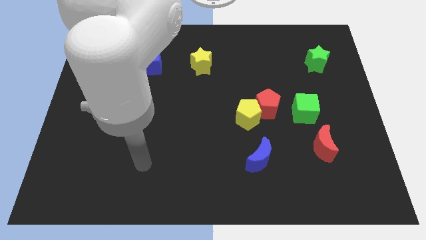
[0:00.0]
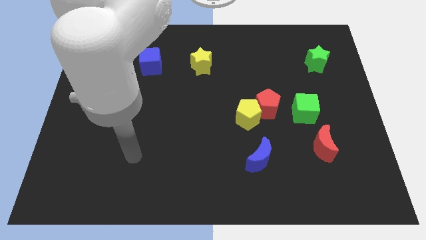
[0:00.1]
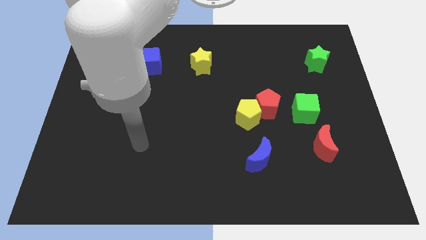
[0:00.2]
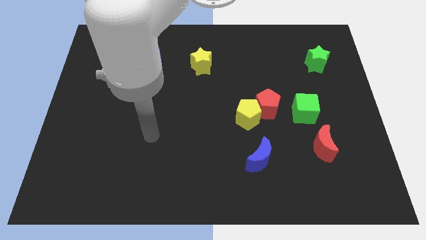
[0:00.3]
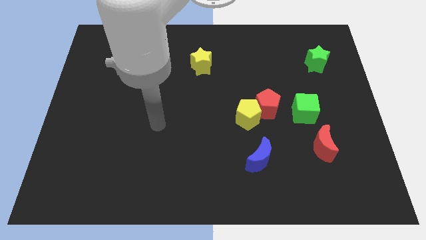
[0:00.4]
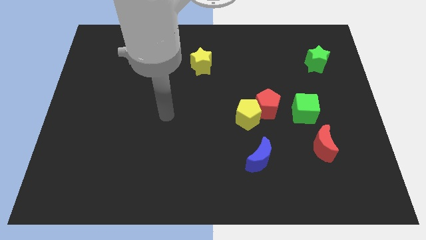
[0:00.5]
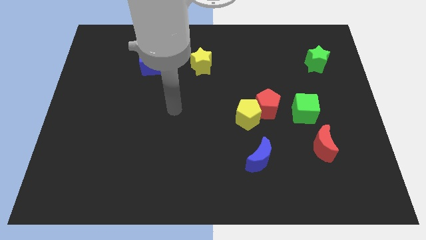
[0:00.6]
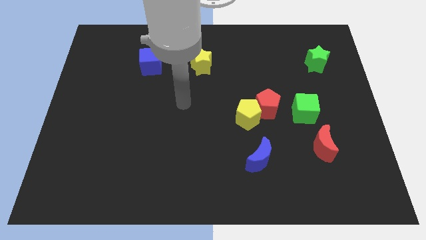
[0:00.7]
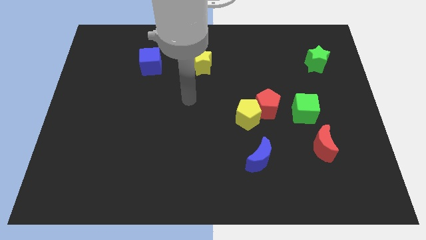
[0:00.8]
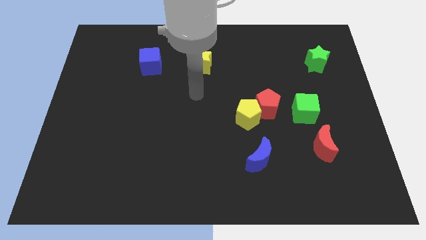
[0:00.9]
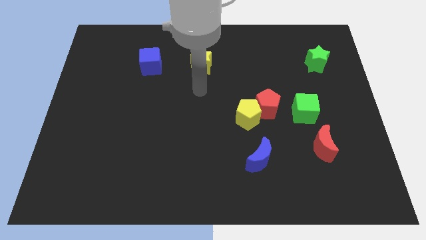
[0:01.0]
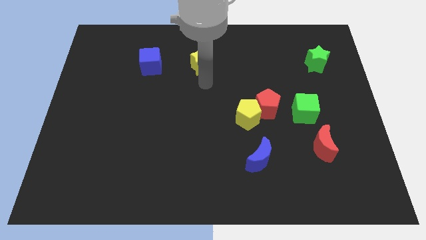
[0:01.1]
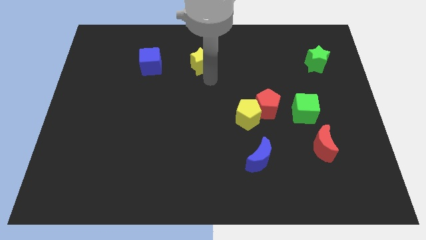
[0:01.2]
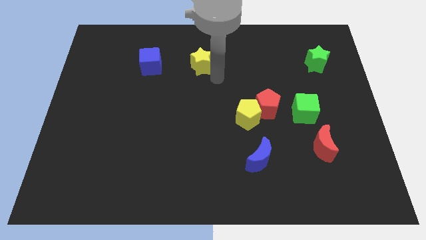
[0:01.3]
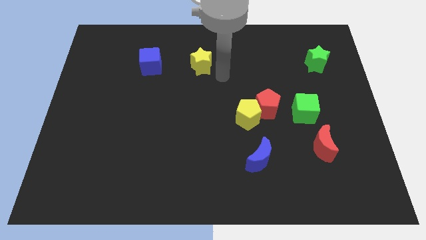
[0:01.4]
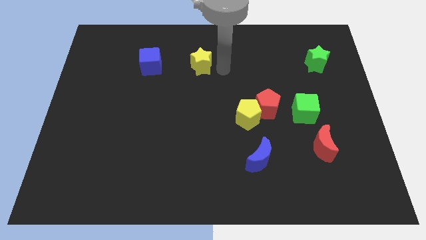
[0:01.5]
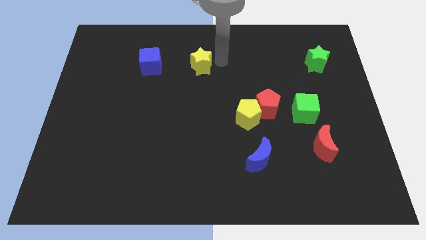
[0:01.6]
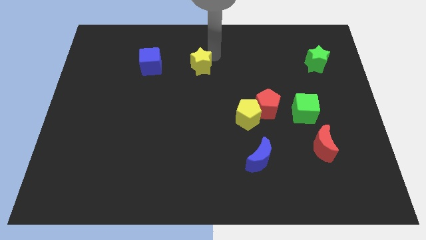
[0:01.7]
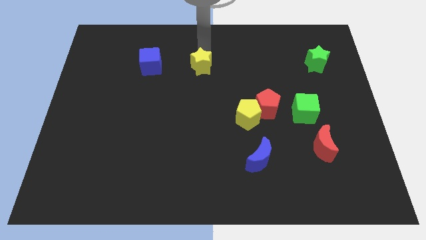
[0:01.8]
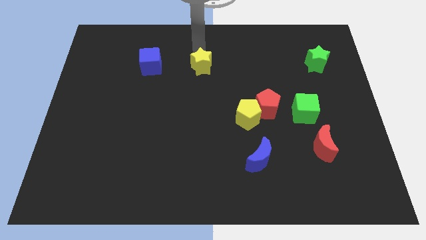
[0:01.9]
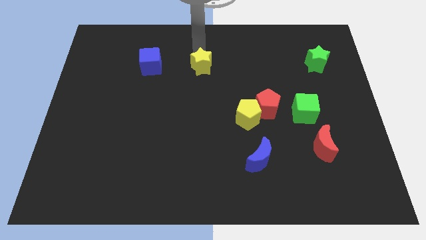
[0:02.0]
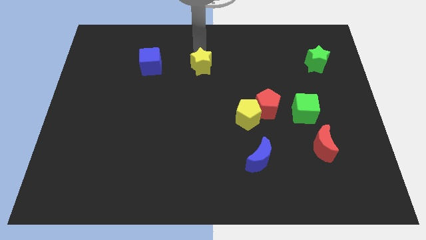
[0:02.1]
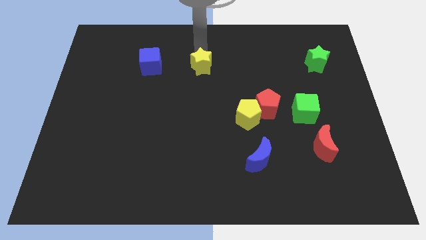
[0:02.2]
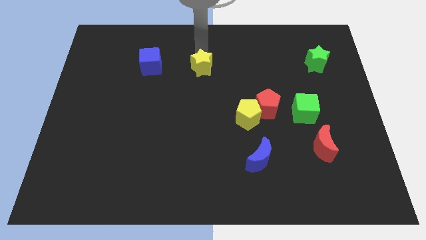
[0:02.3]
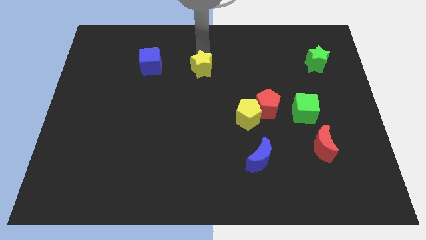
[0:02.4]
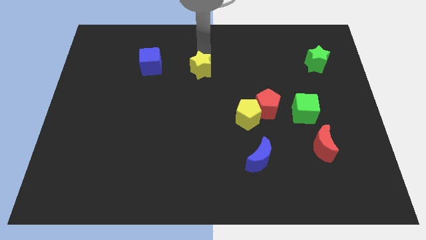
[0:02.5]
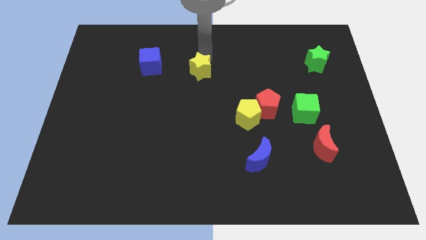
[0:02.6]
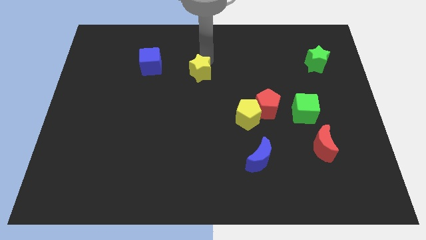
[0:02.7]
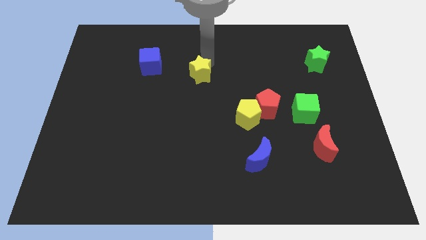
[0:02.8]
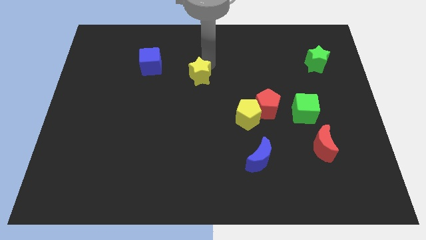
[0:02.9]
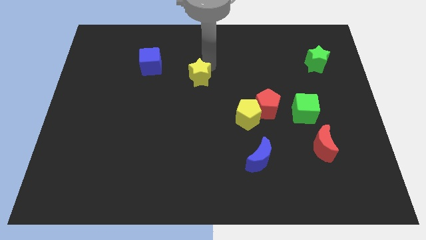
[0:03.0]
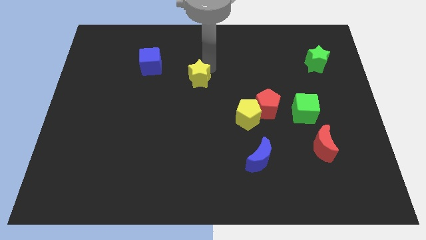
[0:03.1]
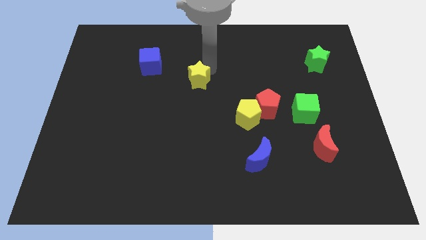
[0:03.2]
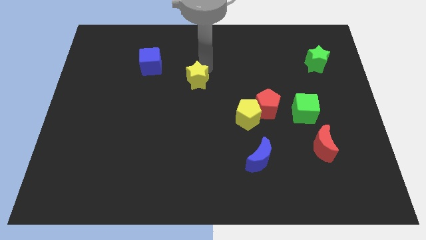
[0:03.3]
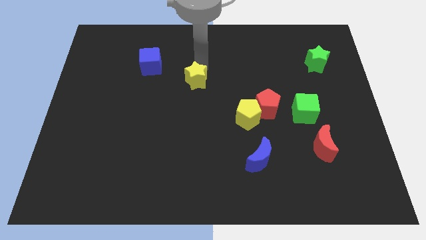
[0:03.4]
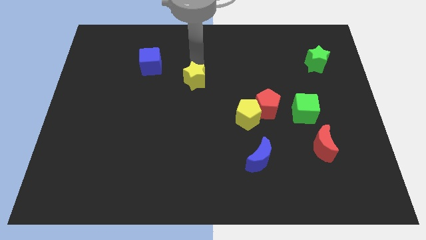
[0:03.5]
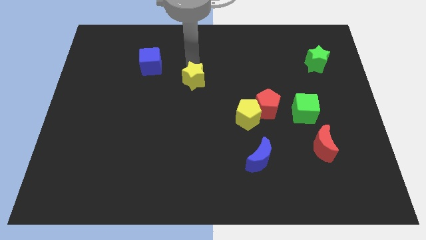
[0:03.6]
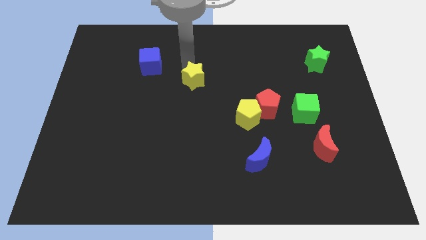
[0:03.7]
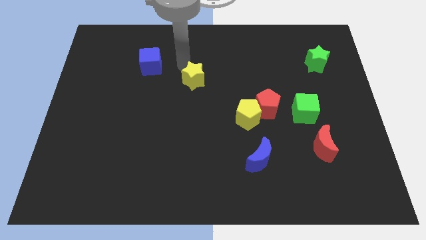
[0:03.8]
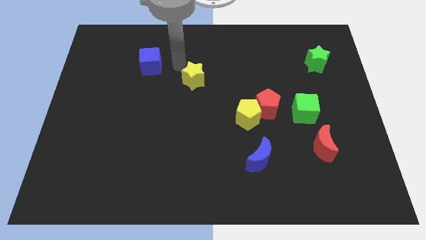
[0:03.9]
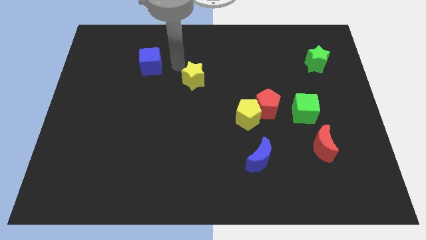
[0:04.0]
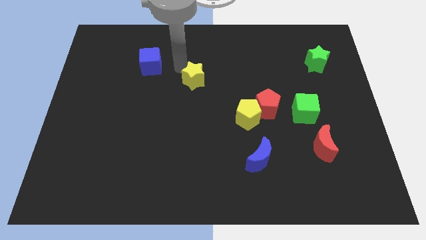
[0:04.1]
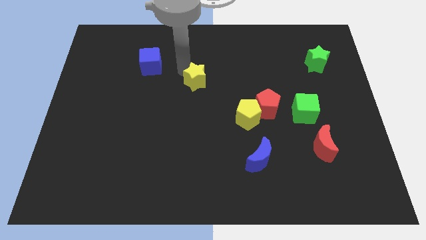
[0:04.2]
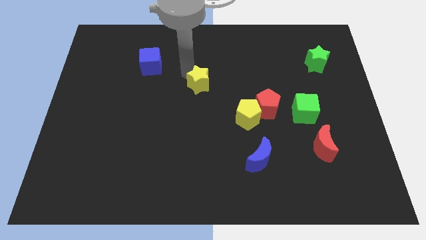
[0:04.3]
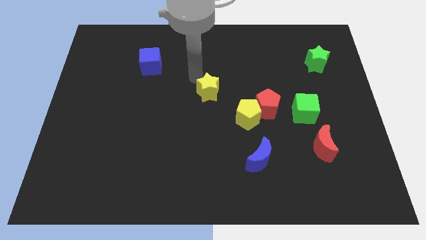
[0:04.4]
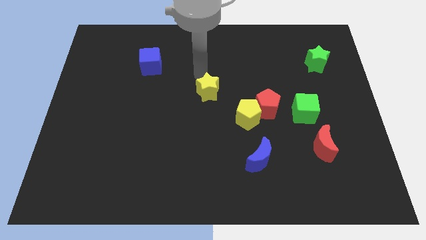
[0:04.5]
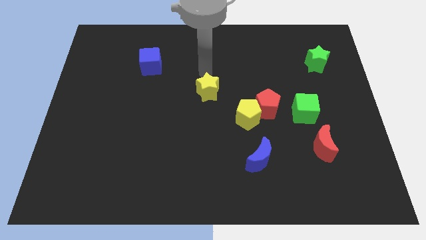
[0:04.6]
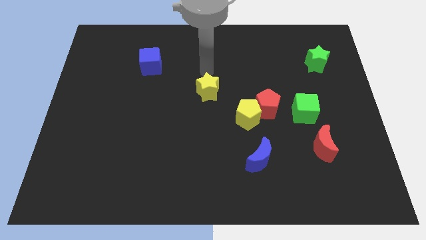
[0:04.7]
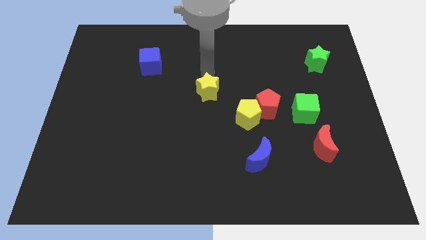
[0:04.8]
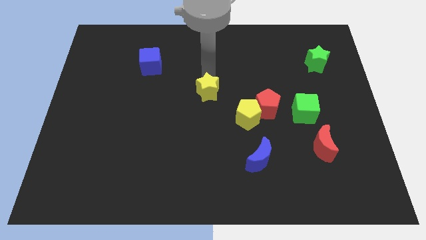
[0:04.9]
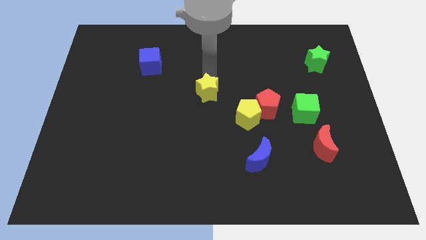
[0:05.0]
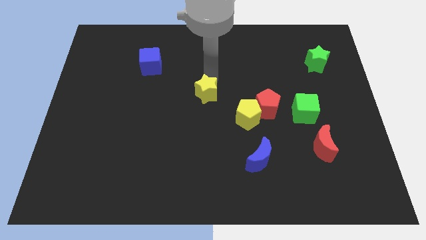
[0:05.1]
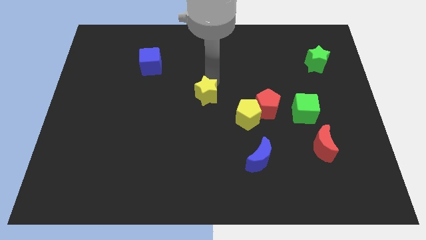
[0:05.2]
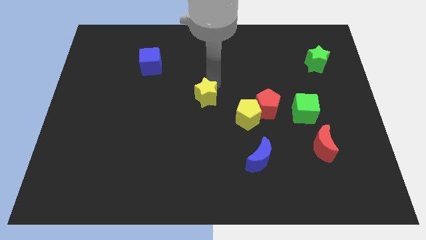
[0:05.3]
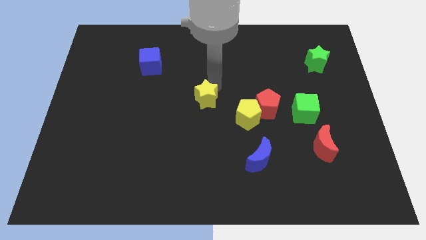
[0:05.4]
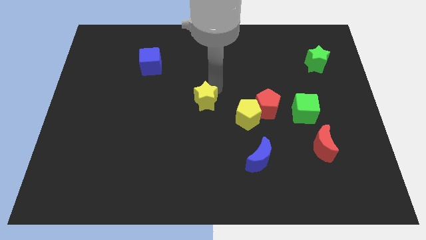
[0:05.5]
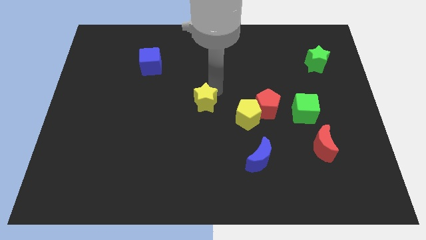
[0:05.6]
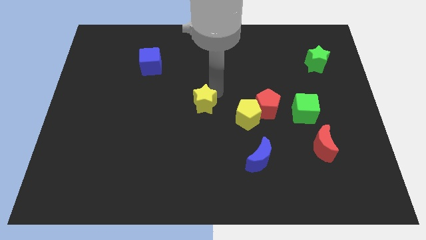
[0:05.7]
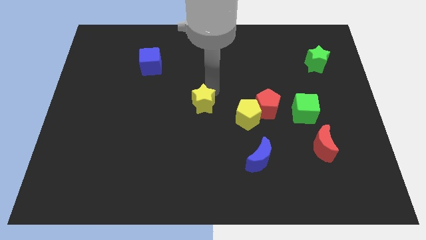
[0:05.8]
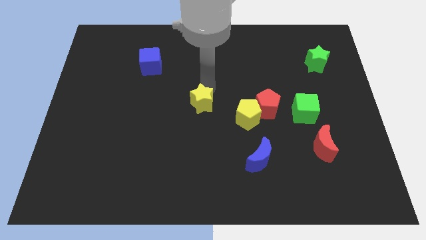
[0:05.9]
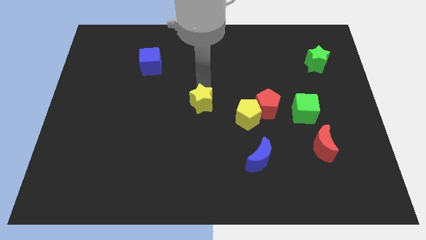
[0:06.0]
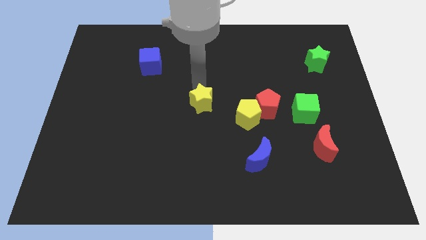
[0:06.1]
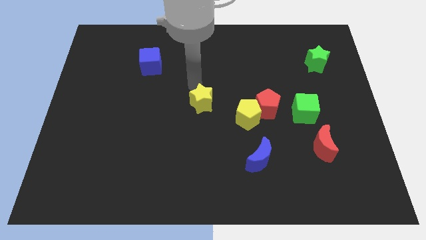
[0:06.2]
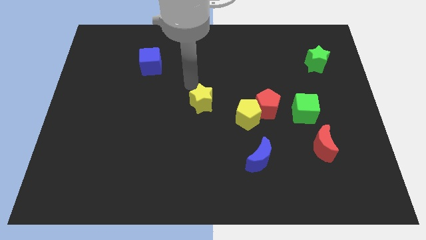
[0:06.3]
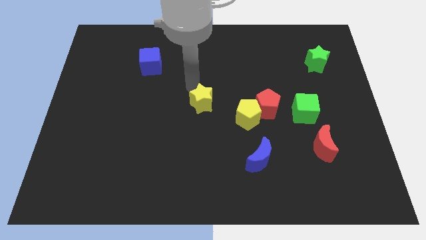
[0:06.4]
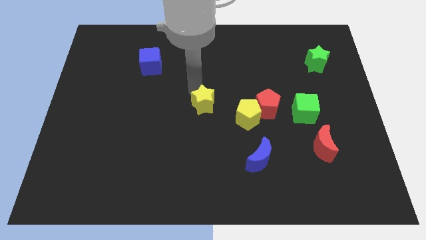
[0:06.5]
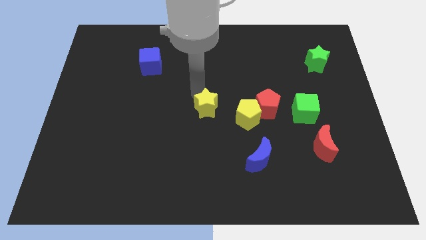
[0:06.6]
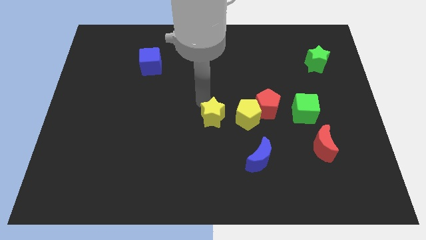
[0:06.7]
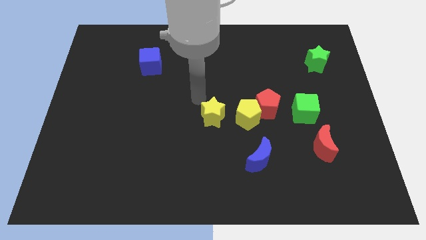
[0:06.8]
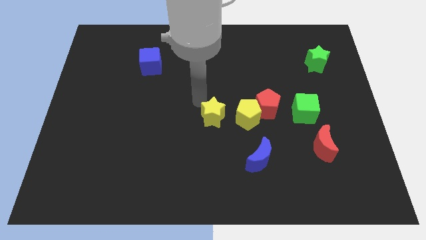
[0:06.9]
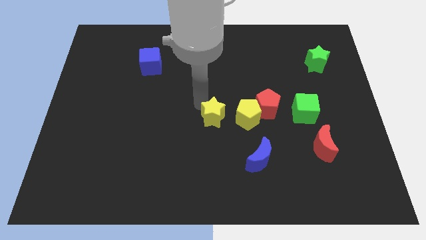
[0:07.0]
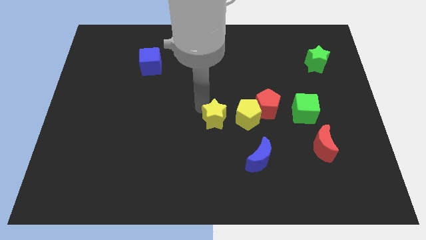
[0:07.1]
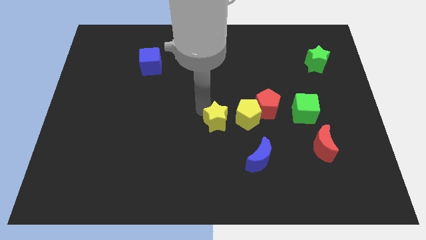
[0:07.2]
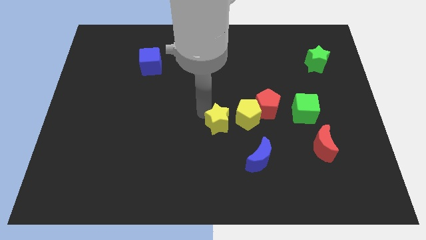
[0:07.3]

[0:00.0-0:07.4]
slide the yellow star to the top left of the blue moon

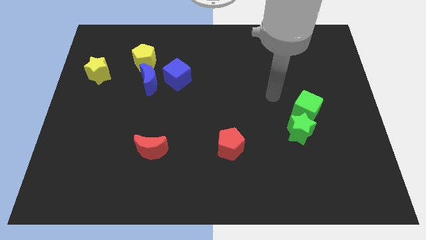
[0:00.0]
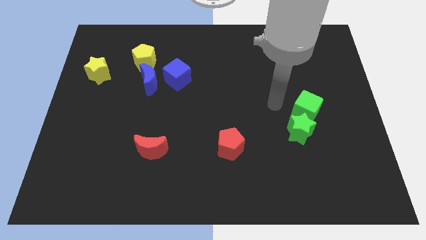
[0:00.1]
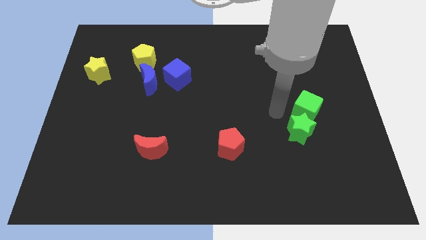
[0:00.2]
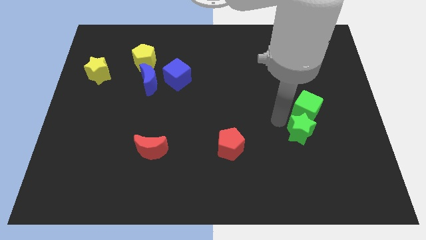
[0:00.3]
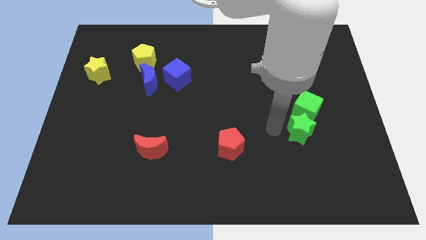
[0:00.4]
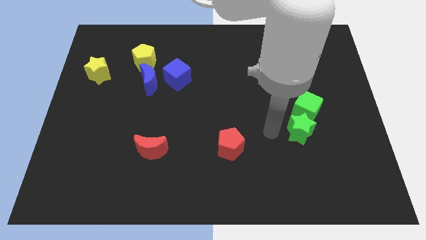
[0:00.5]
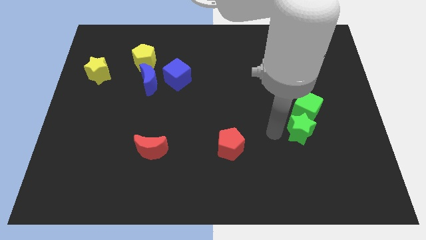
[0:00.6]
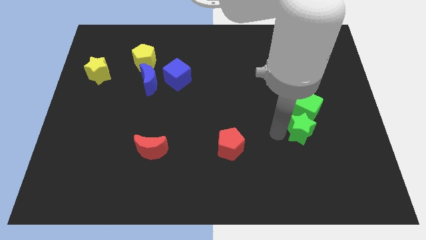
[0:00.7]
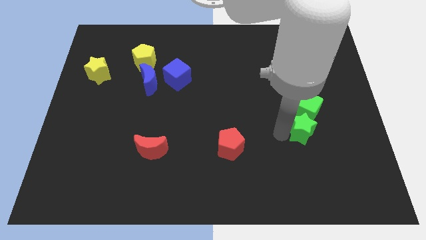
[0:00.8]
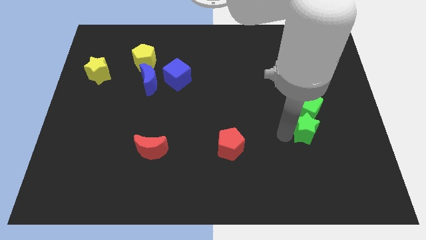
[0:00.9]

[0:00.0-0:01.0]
put the green star to the bottom right of the green cube
